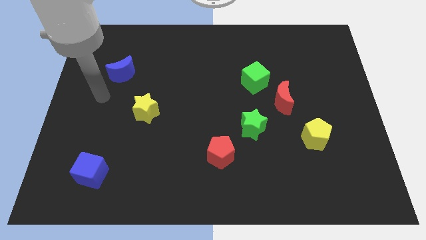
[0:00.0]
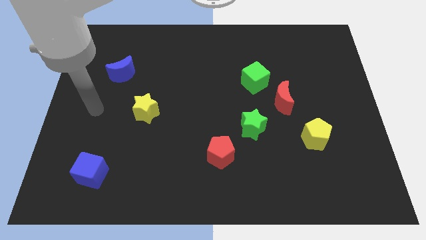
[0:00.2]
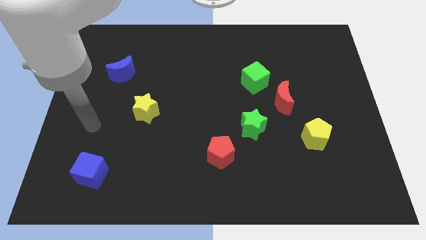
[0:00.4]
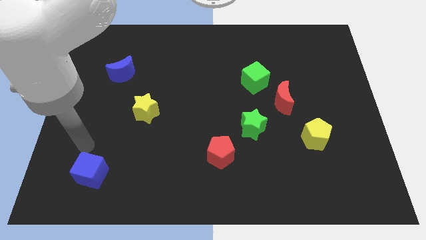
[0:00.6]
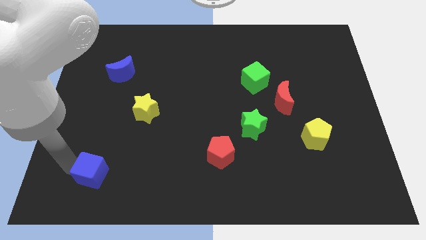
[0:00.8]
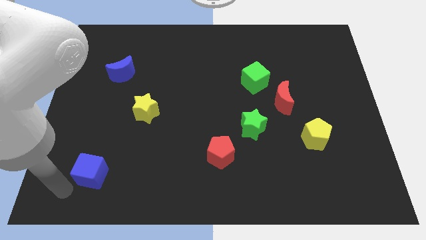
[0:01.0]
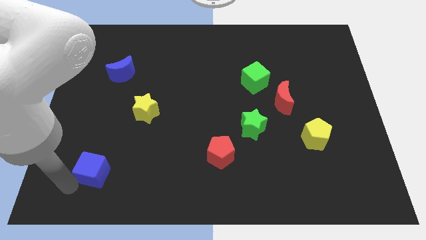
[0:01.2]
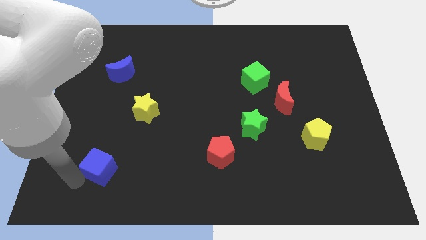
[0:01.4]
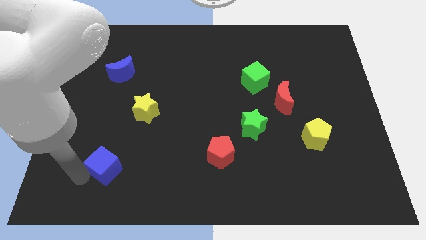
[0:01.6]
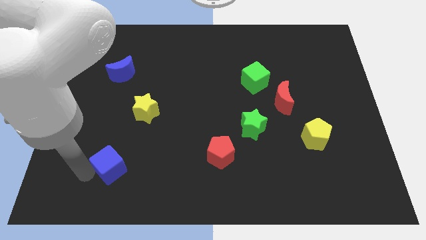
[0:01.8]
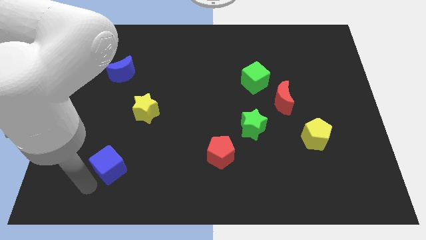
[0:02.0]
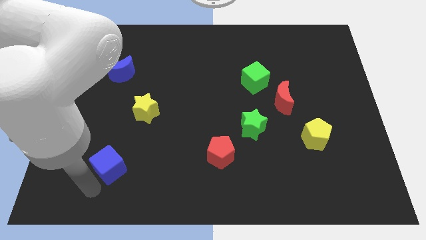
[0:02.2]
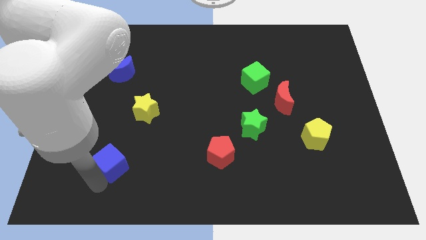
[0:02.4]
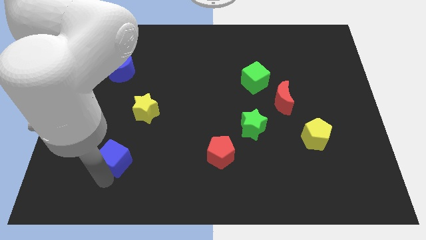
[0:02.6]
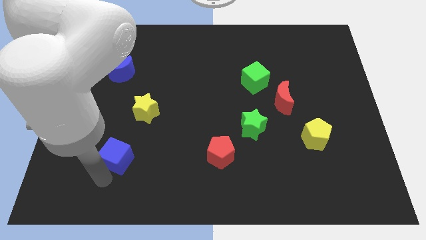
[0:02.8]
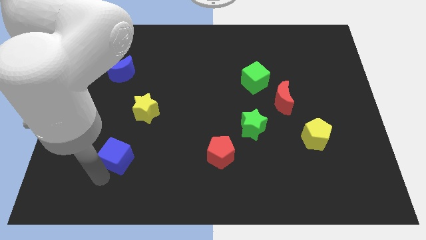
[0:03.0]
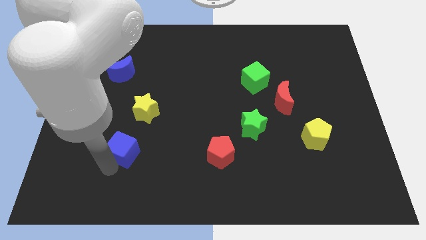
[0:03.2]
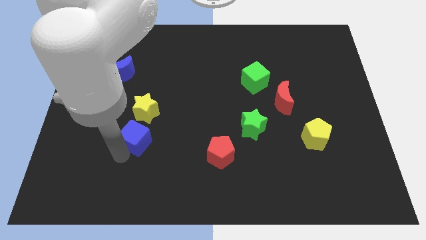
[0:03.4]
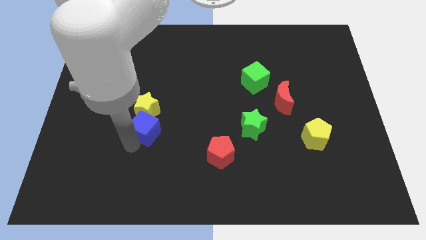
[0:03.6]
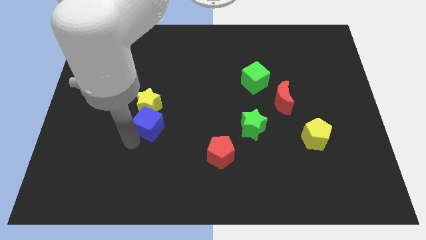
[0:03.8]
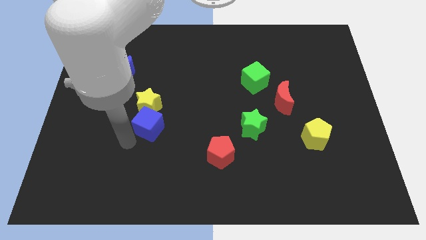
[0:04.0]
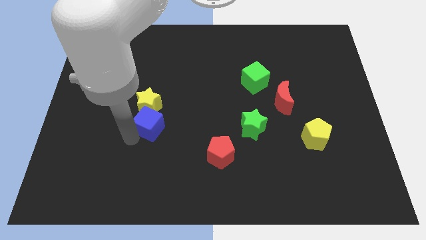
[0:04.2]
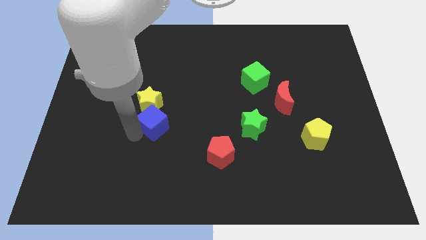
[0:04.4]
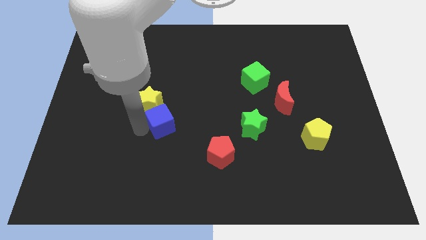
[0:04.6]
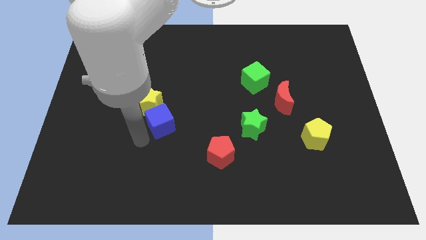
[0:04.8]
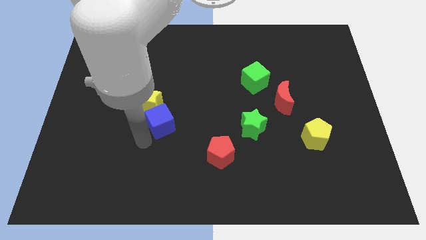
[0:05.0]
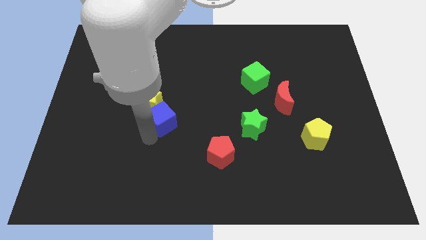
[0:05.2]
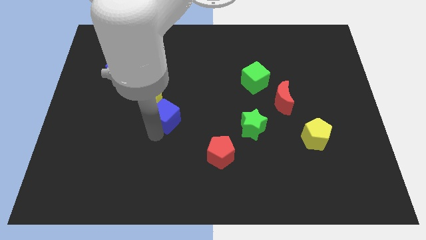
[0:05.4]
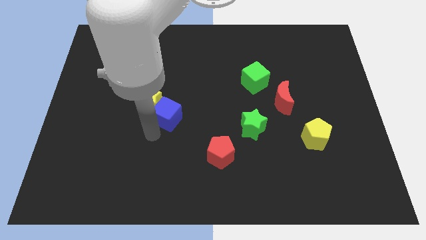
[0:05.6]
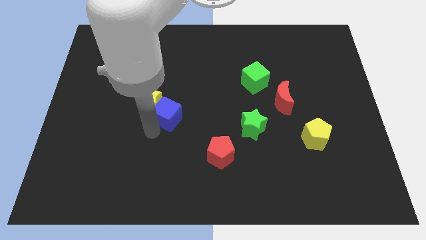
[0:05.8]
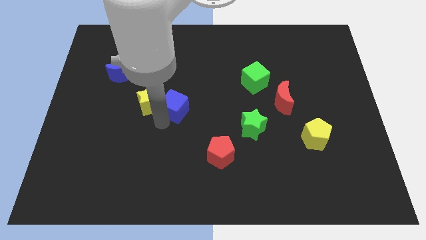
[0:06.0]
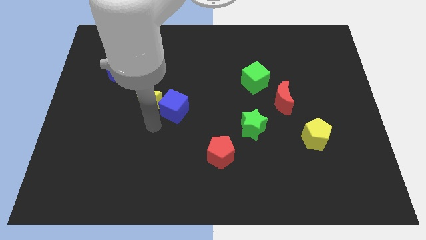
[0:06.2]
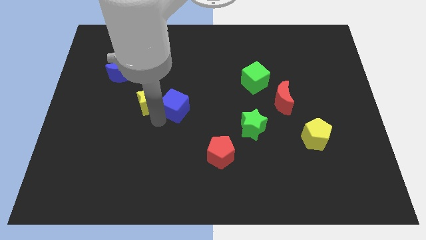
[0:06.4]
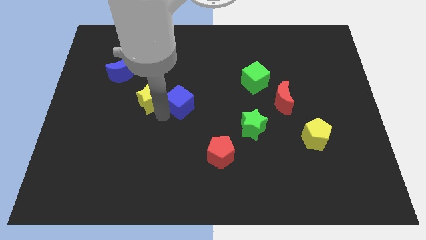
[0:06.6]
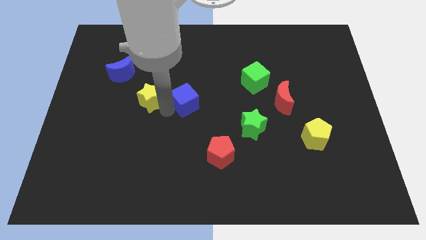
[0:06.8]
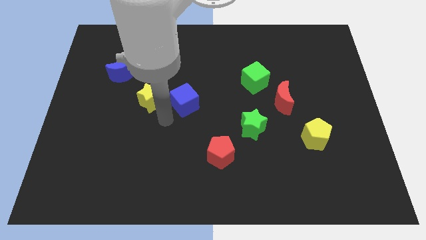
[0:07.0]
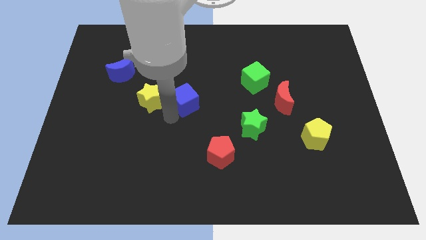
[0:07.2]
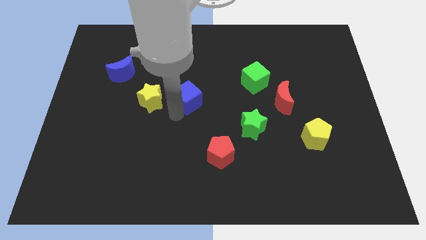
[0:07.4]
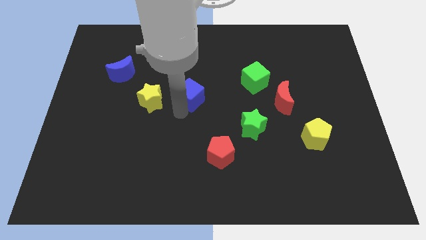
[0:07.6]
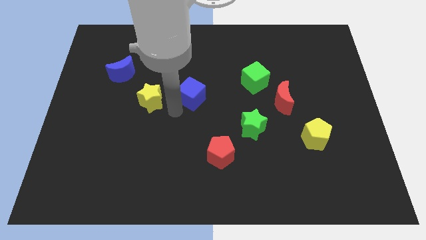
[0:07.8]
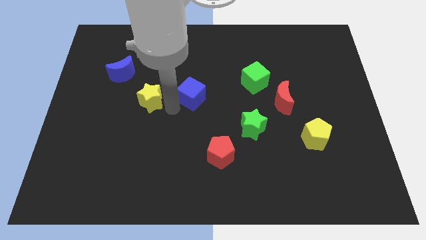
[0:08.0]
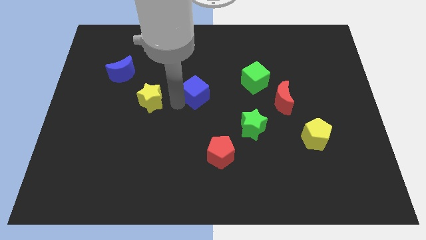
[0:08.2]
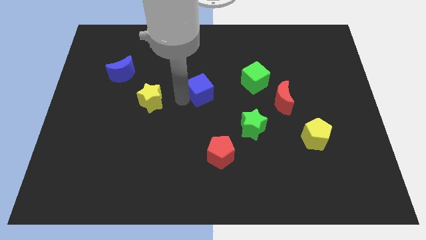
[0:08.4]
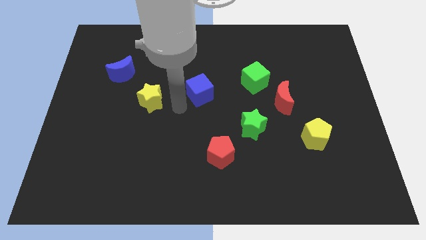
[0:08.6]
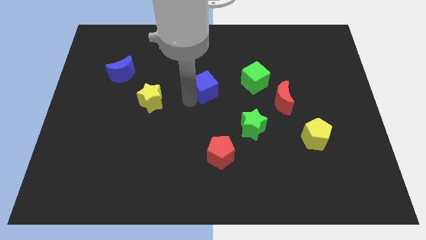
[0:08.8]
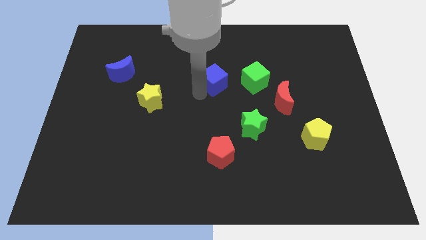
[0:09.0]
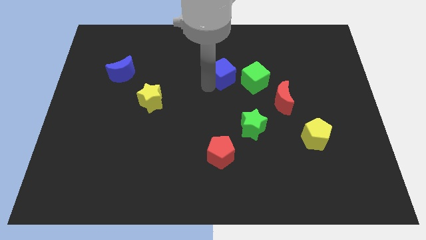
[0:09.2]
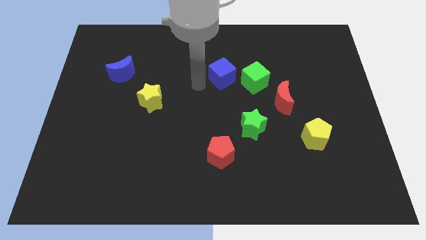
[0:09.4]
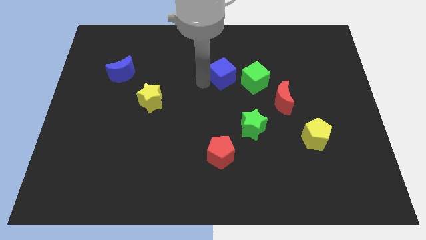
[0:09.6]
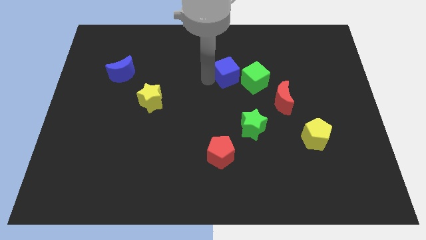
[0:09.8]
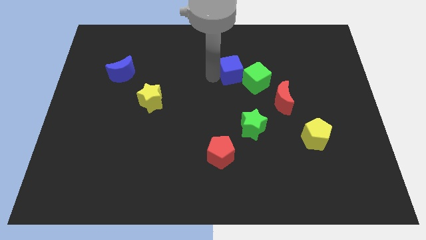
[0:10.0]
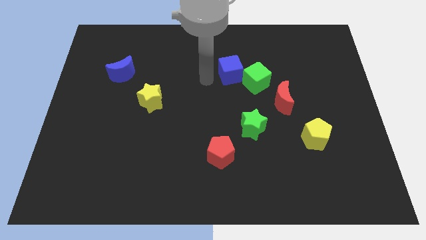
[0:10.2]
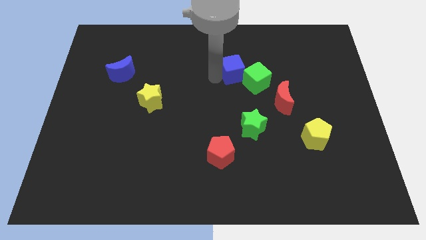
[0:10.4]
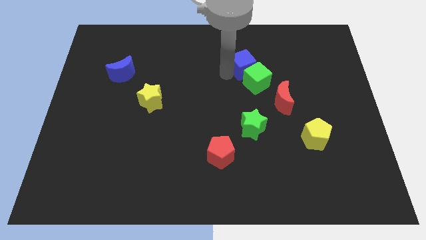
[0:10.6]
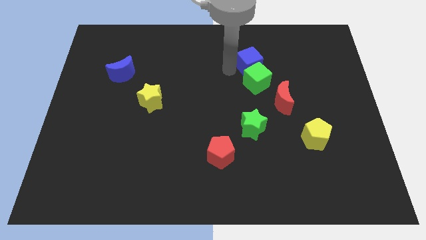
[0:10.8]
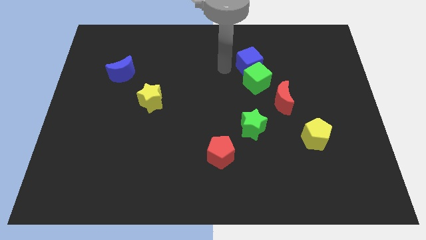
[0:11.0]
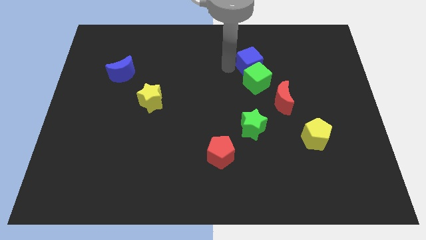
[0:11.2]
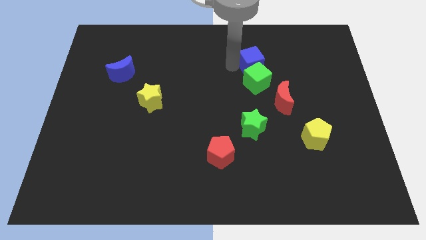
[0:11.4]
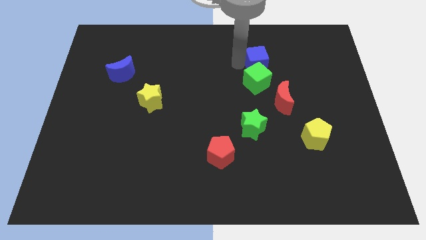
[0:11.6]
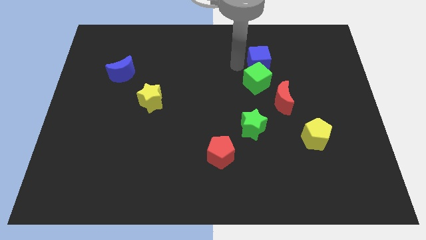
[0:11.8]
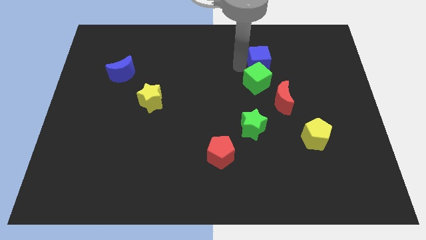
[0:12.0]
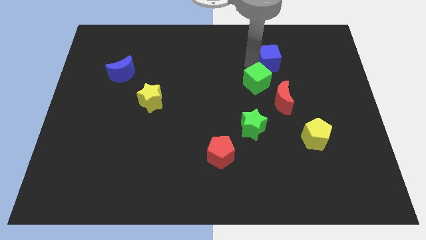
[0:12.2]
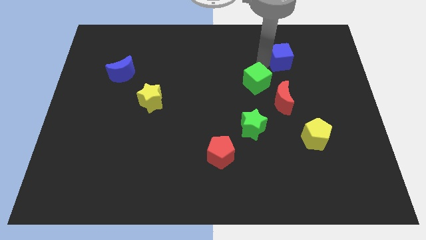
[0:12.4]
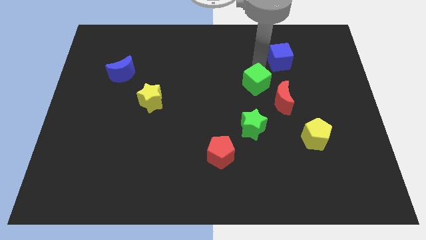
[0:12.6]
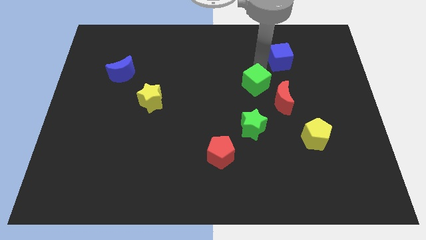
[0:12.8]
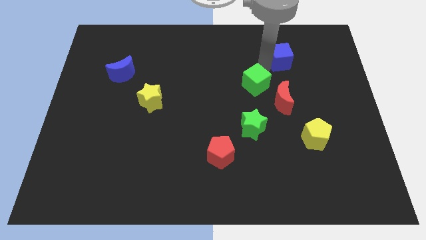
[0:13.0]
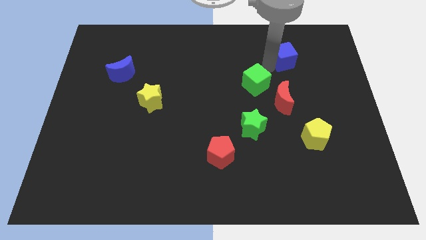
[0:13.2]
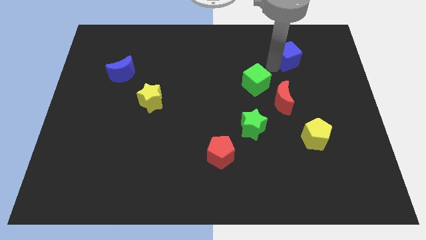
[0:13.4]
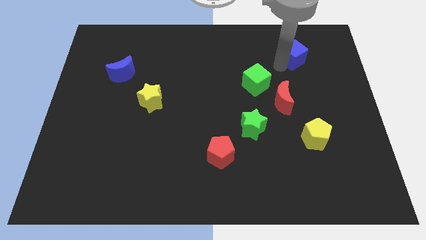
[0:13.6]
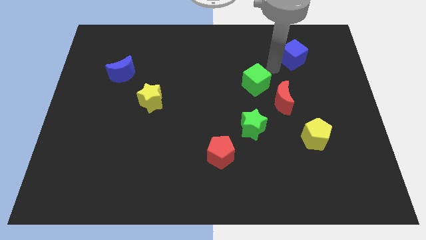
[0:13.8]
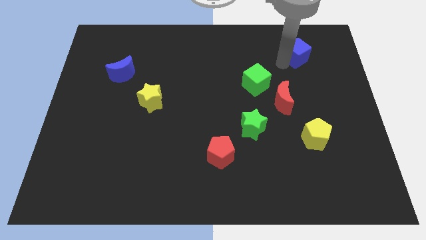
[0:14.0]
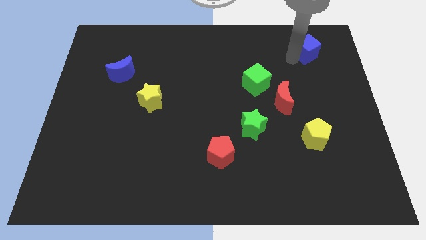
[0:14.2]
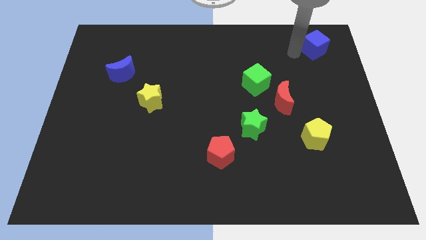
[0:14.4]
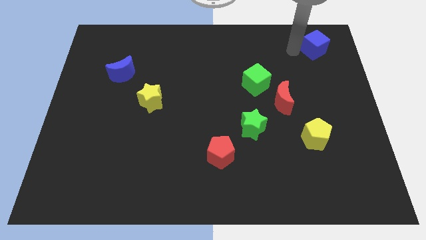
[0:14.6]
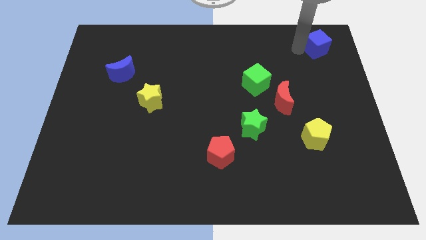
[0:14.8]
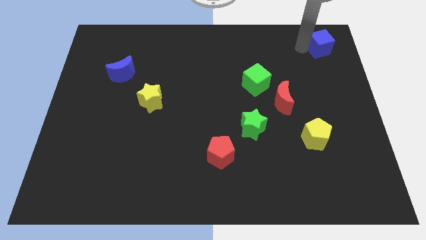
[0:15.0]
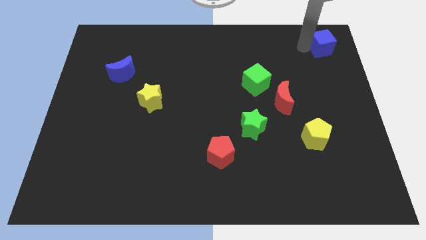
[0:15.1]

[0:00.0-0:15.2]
move the blue cube to the top right
